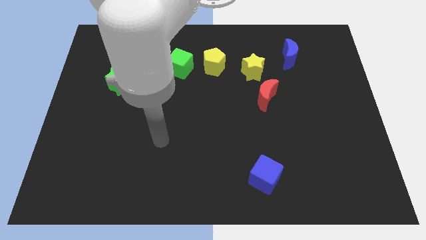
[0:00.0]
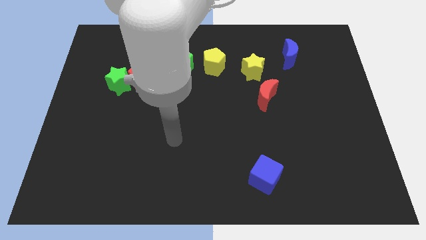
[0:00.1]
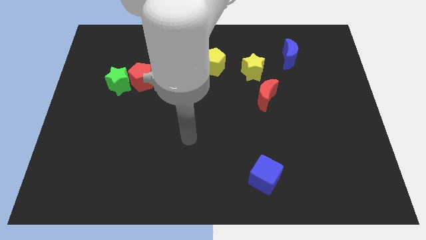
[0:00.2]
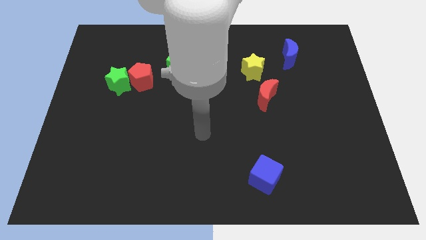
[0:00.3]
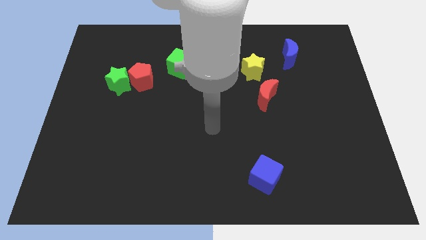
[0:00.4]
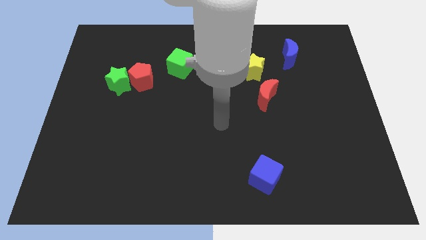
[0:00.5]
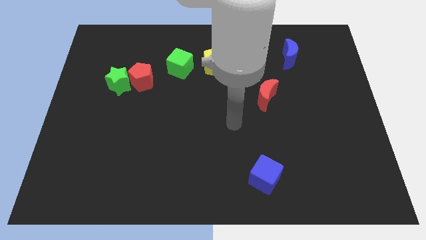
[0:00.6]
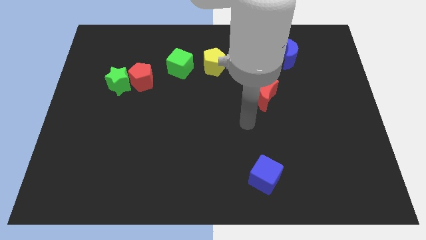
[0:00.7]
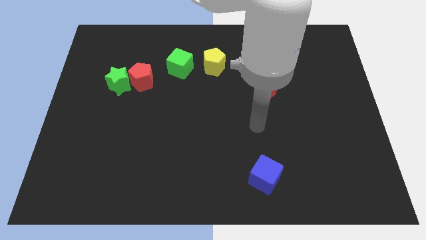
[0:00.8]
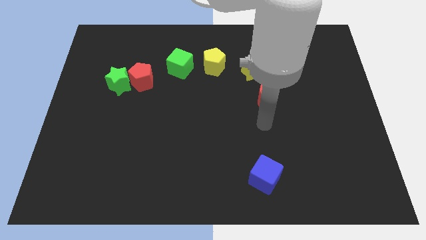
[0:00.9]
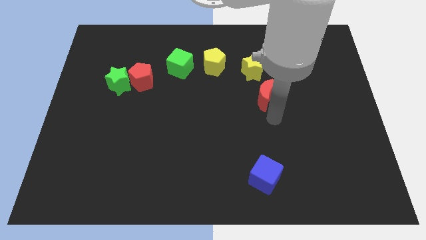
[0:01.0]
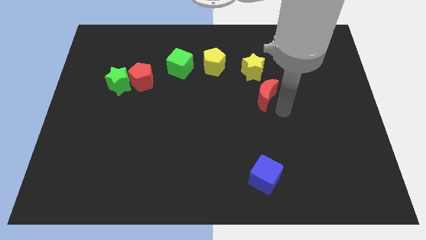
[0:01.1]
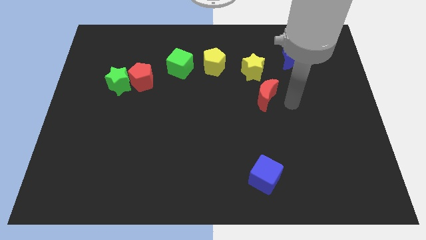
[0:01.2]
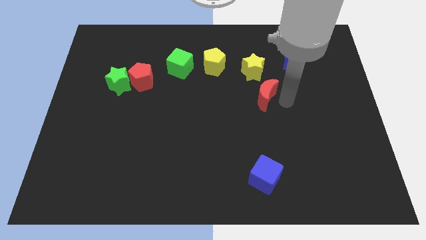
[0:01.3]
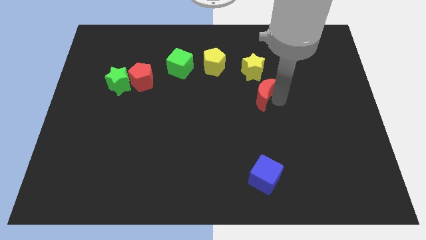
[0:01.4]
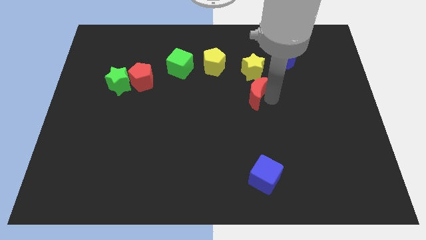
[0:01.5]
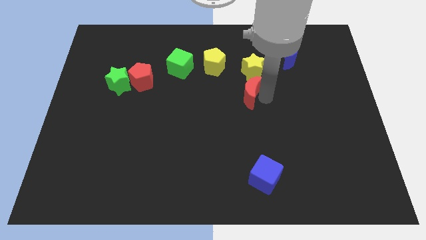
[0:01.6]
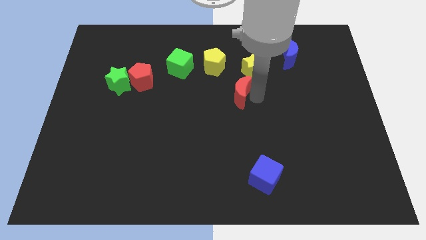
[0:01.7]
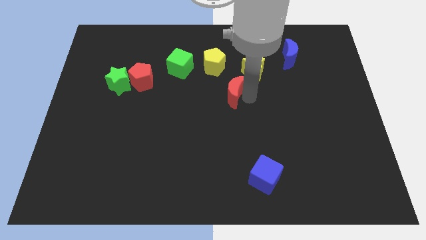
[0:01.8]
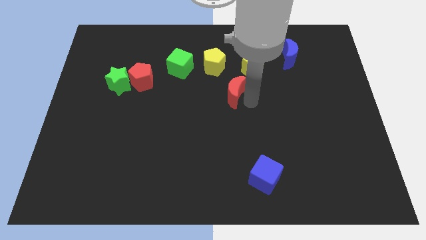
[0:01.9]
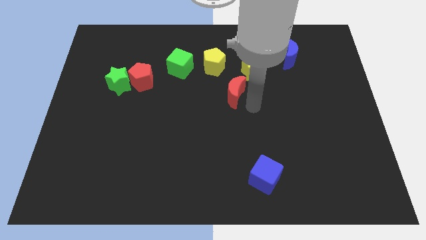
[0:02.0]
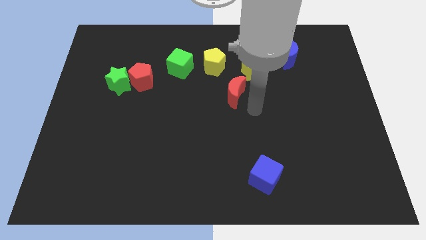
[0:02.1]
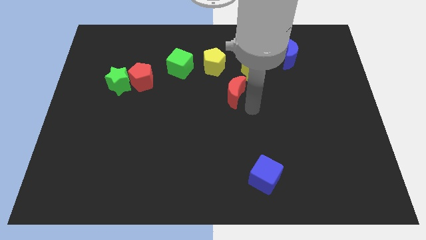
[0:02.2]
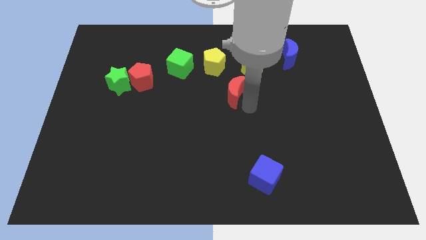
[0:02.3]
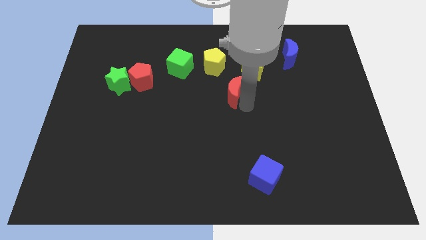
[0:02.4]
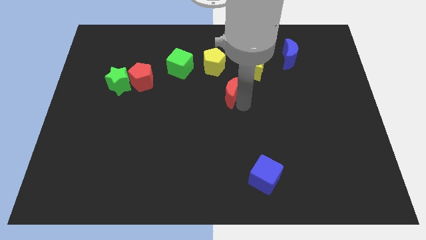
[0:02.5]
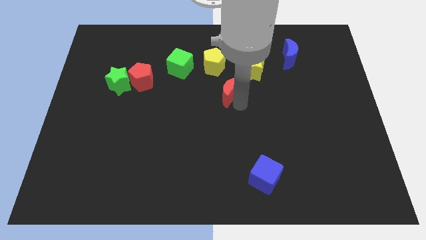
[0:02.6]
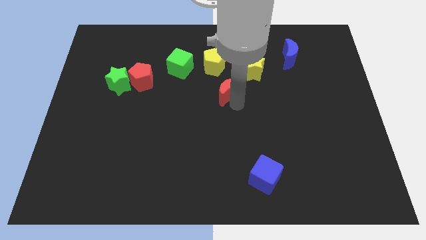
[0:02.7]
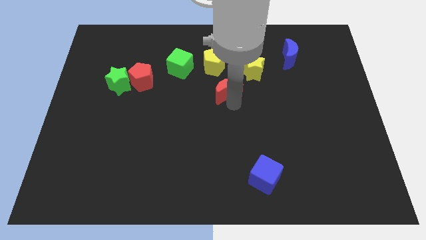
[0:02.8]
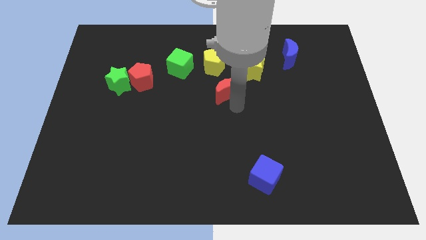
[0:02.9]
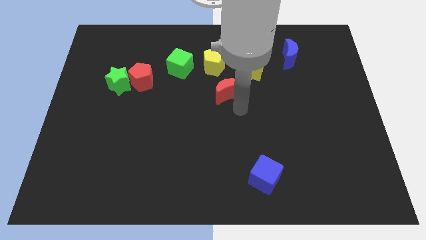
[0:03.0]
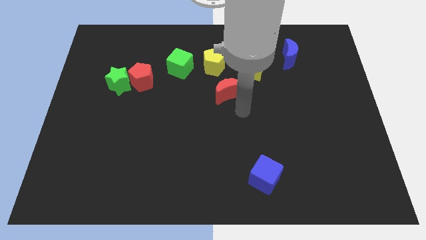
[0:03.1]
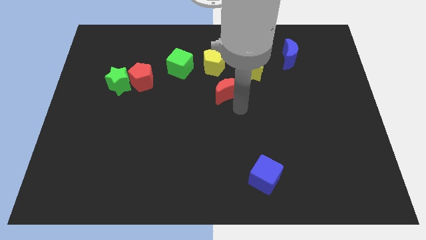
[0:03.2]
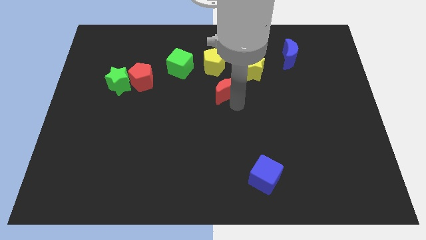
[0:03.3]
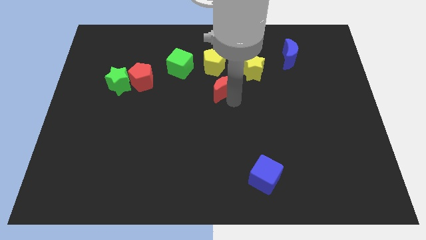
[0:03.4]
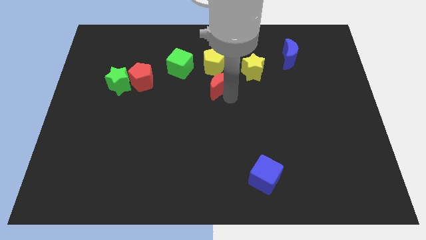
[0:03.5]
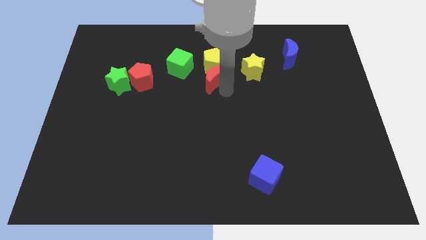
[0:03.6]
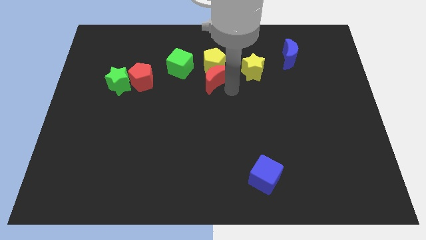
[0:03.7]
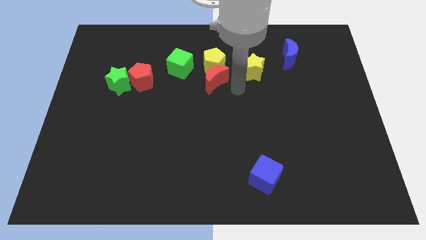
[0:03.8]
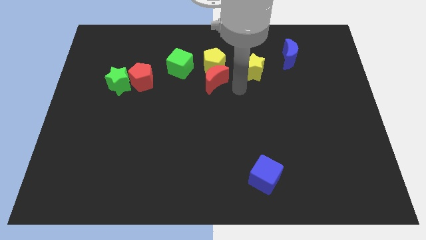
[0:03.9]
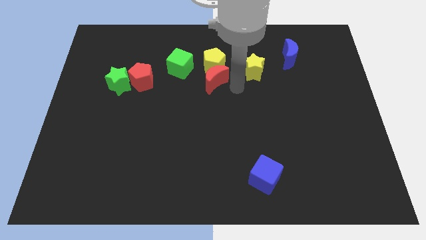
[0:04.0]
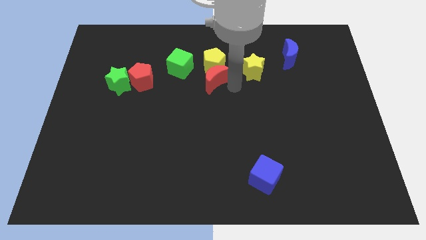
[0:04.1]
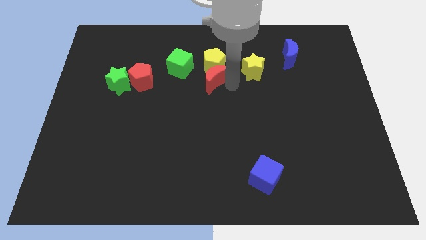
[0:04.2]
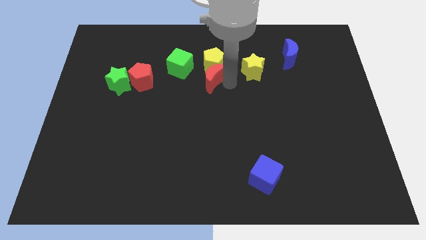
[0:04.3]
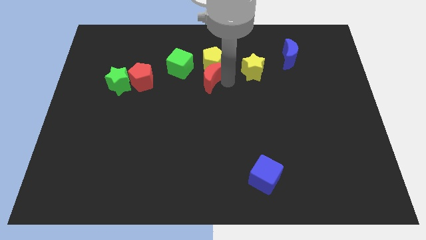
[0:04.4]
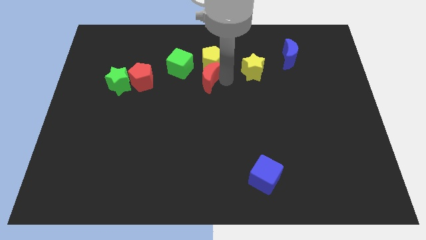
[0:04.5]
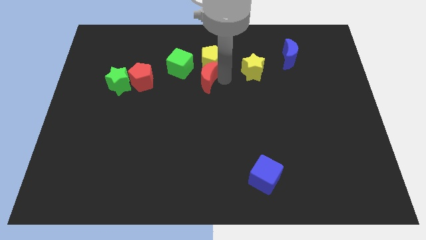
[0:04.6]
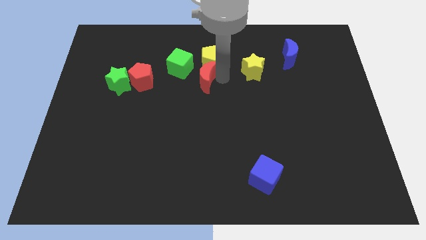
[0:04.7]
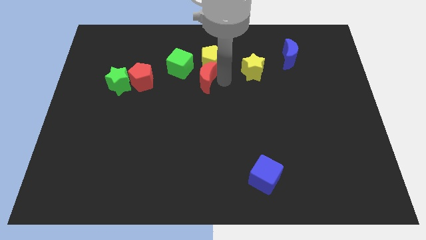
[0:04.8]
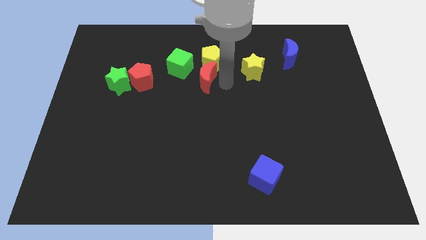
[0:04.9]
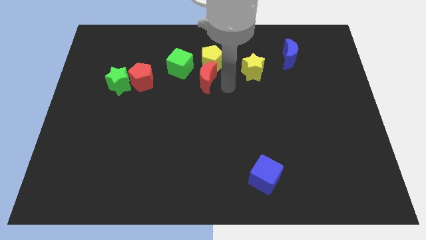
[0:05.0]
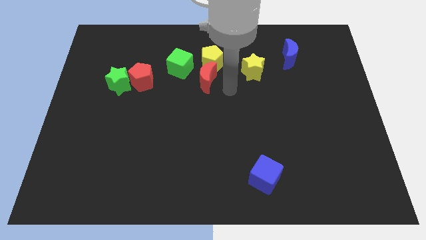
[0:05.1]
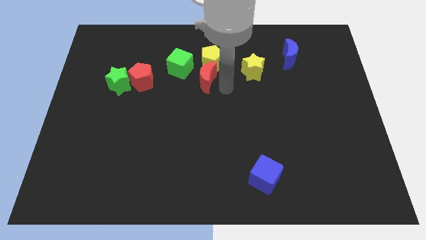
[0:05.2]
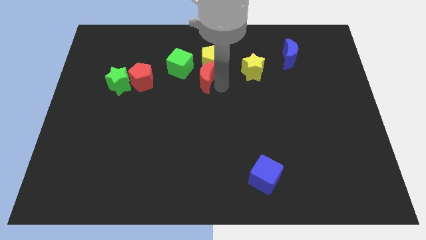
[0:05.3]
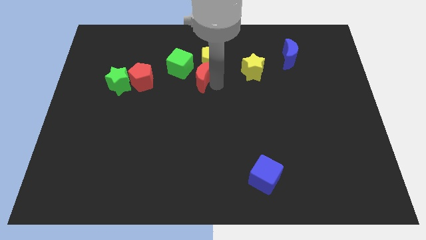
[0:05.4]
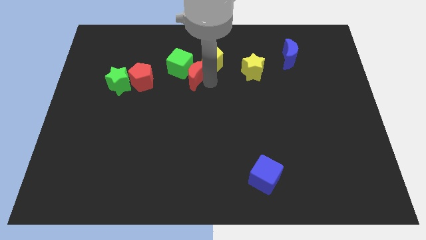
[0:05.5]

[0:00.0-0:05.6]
put the red moon towards the green cube
